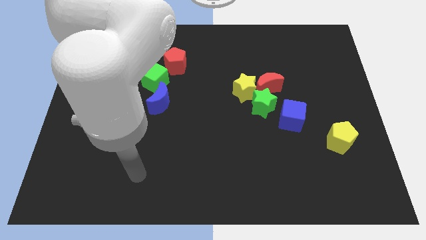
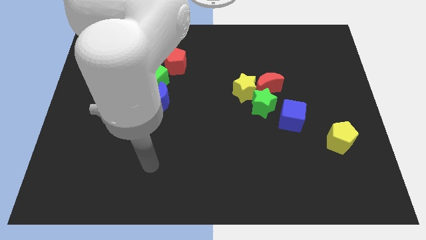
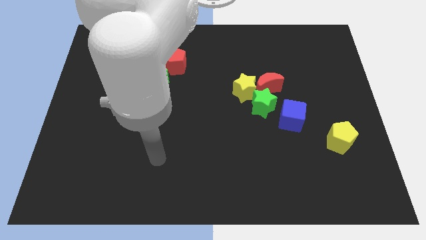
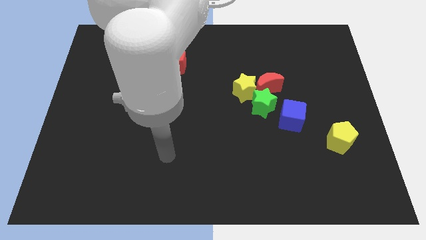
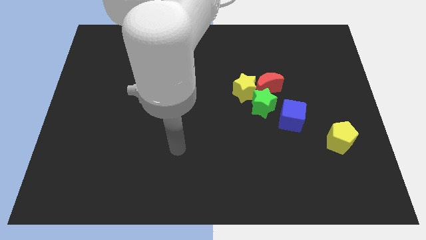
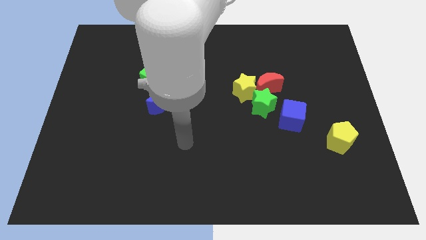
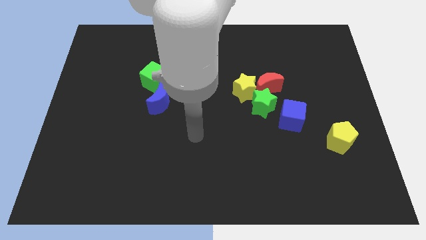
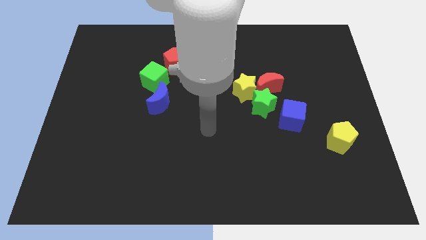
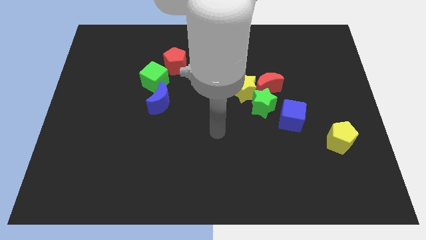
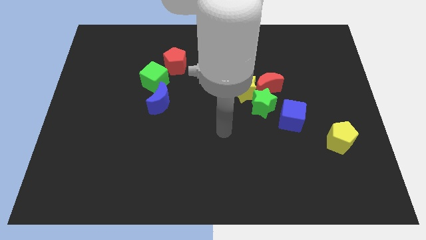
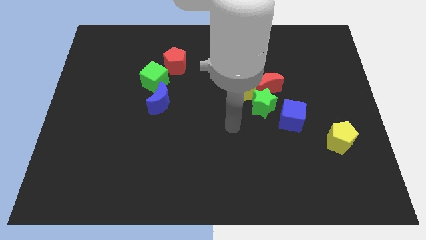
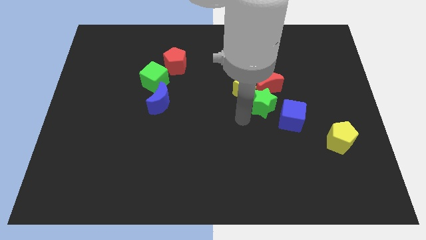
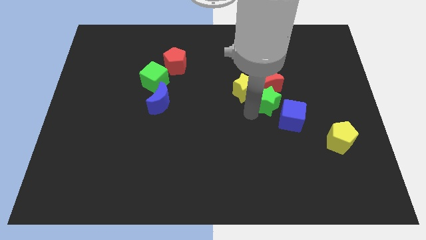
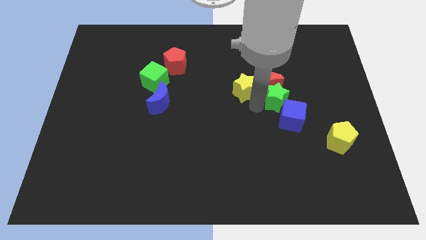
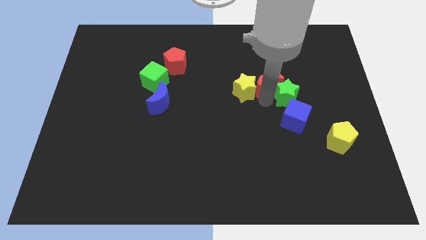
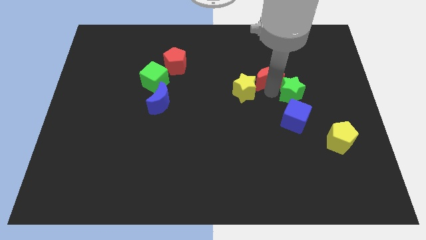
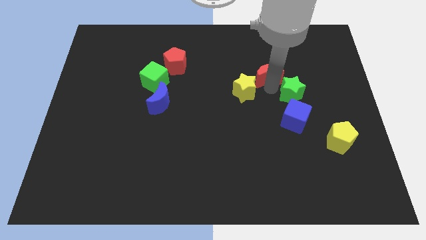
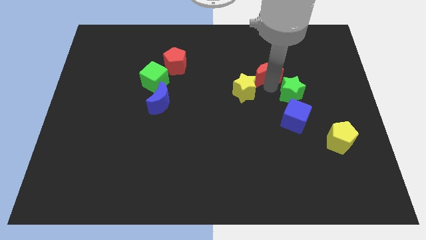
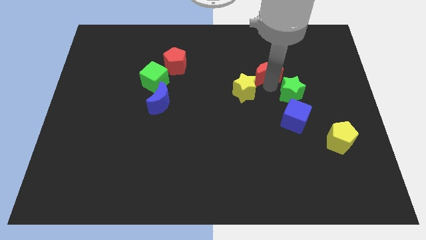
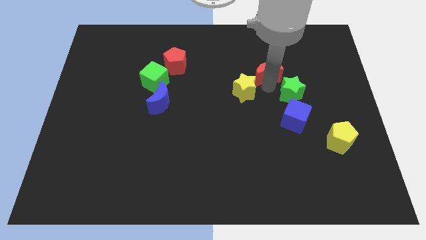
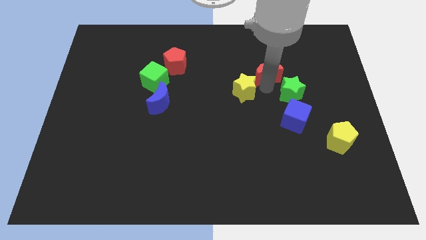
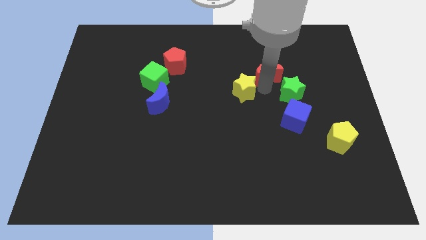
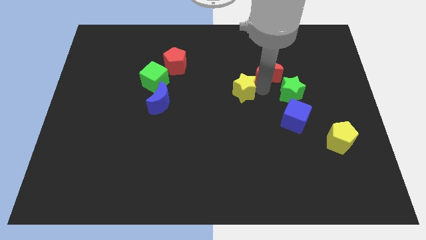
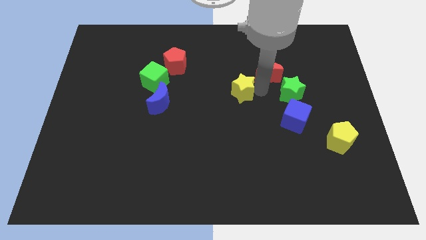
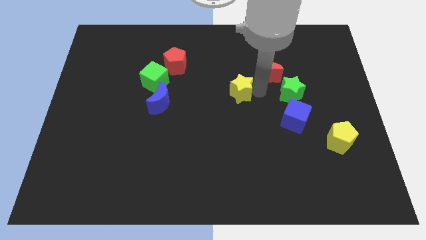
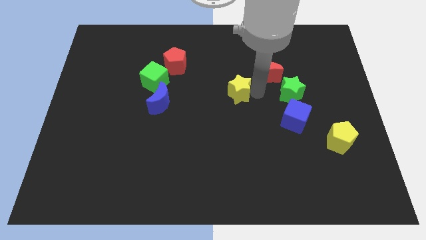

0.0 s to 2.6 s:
separate the yellow star from the red moon and green star

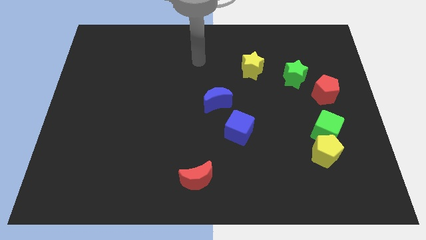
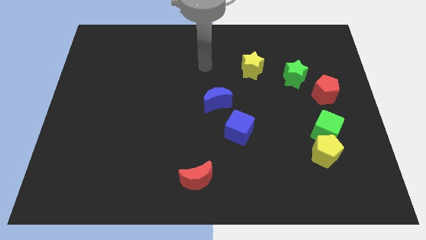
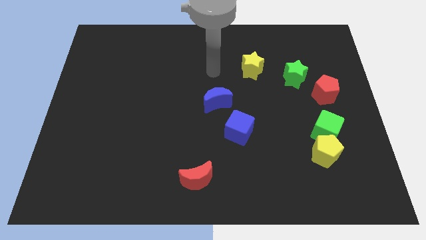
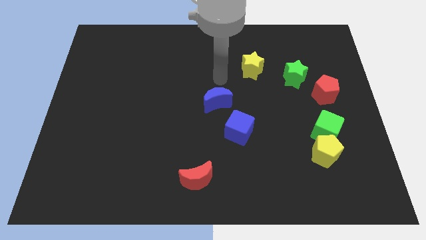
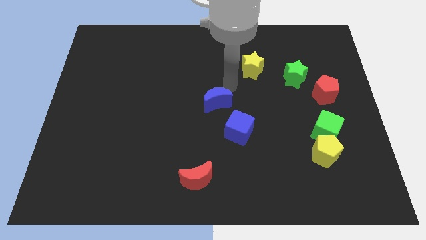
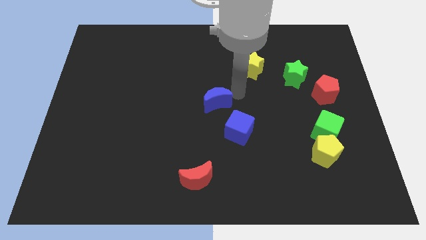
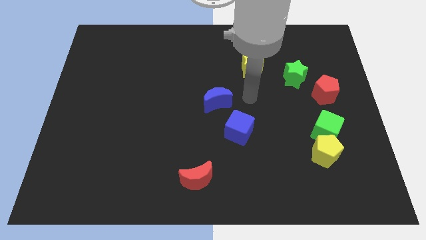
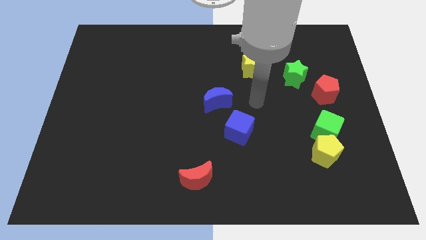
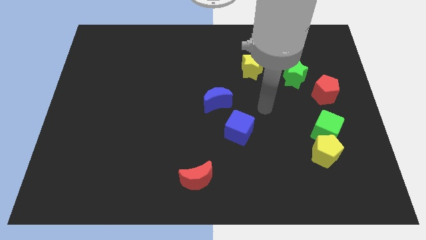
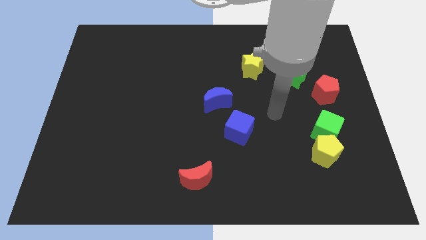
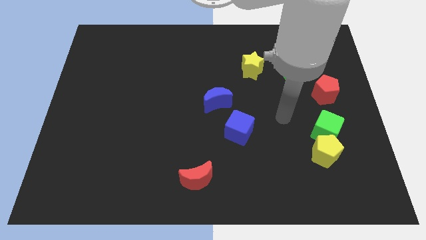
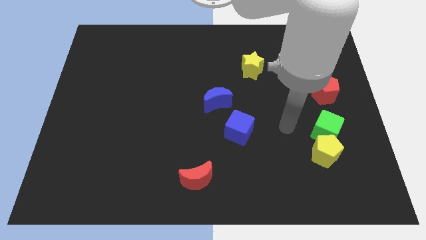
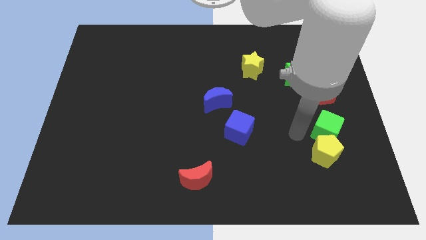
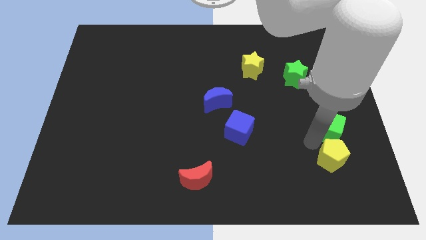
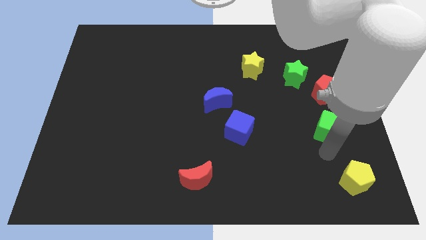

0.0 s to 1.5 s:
move the green cube away from the yellow pentagon

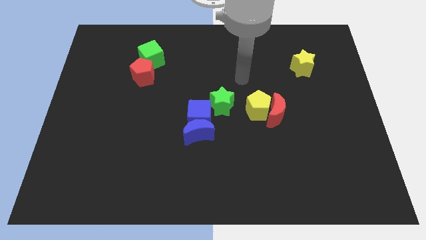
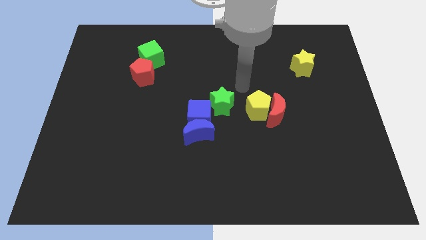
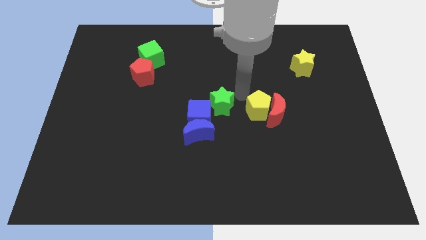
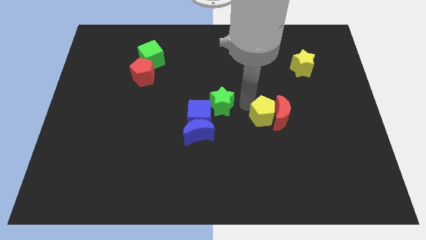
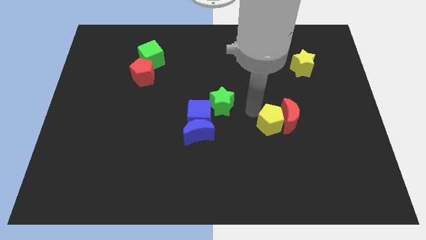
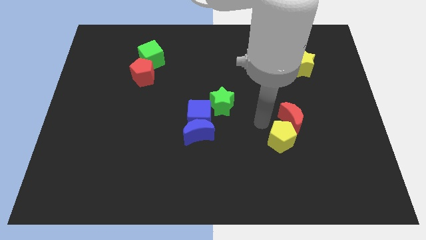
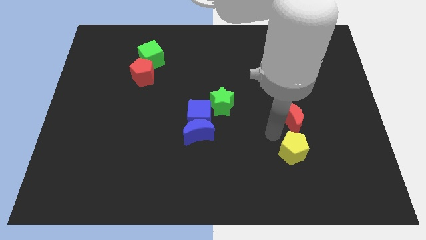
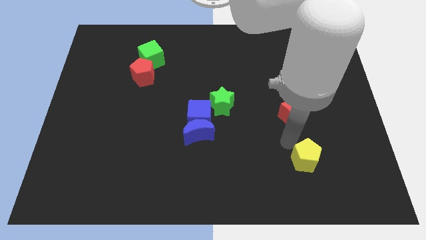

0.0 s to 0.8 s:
separate the red moon from the yellow pentagon

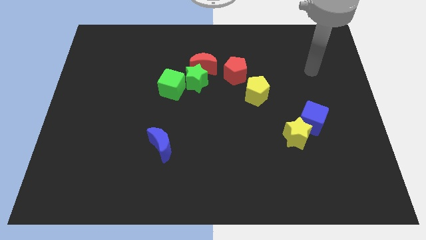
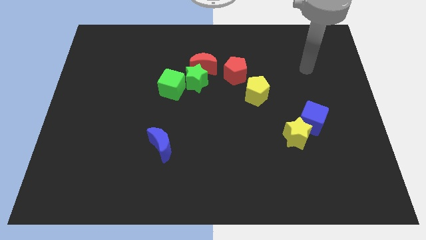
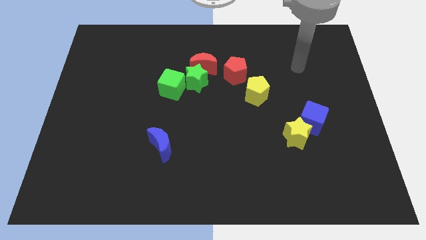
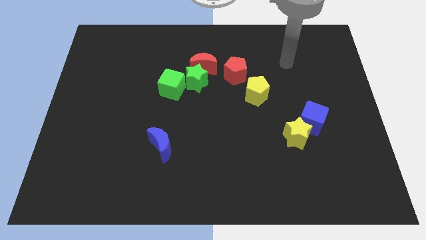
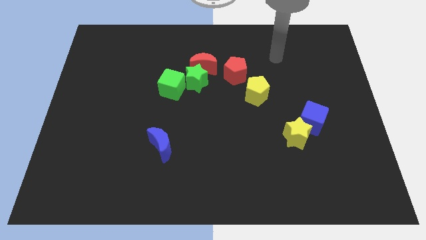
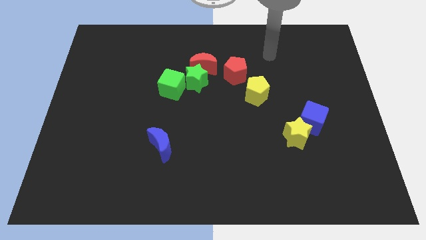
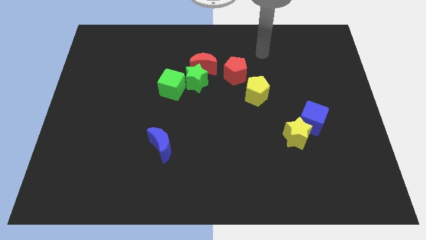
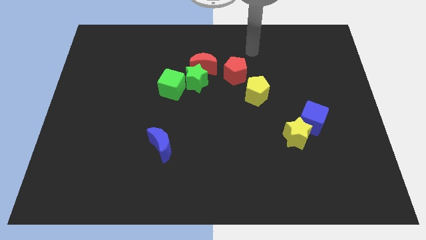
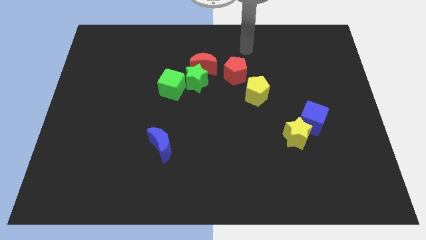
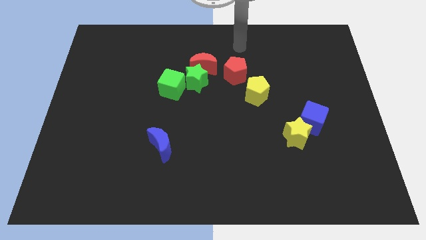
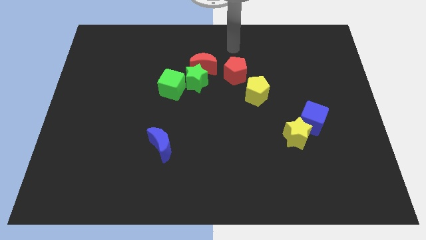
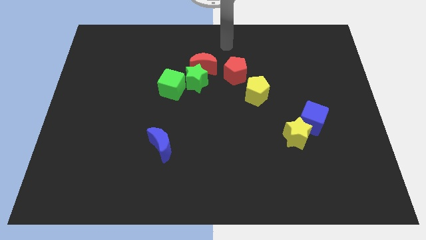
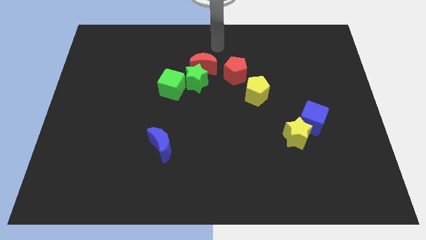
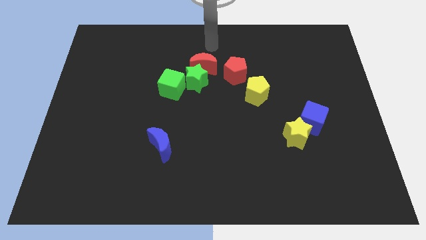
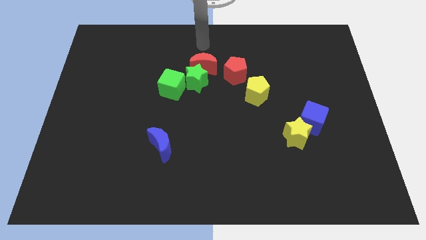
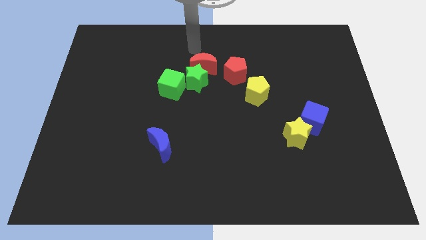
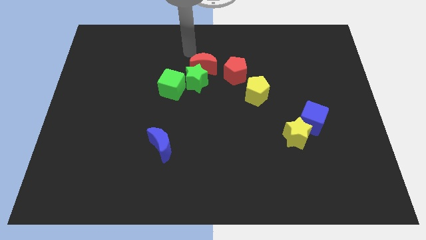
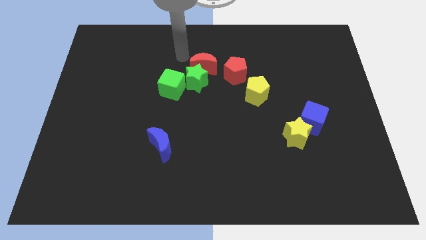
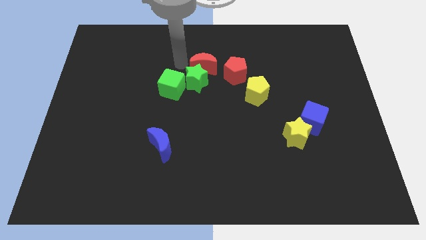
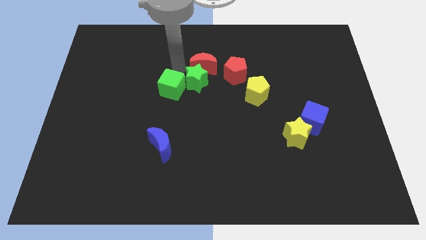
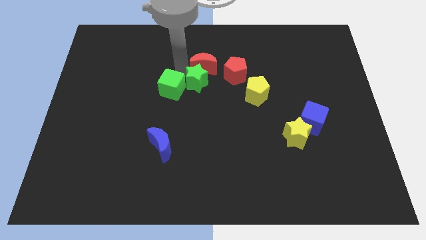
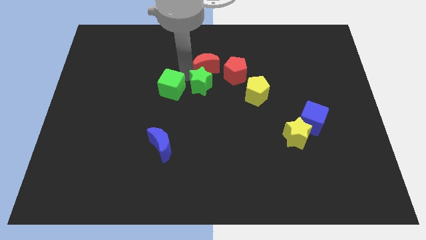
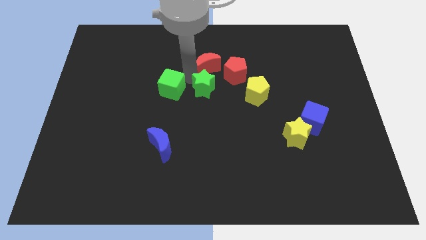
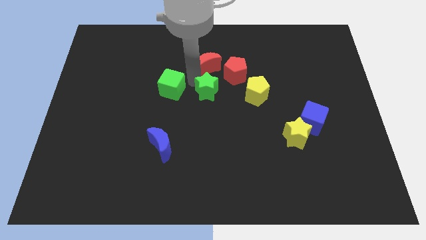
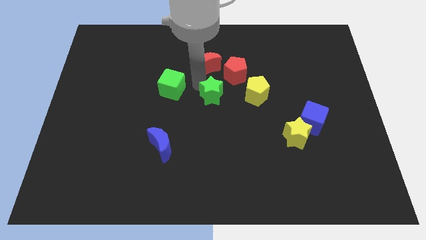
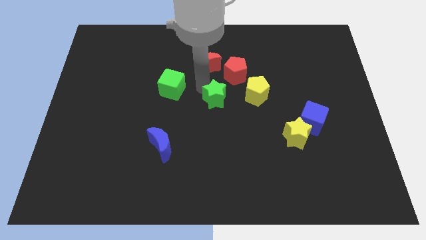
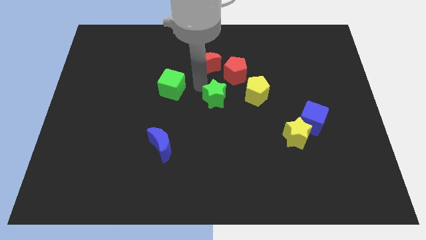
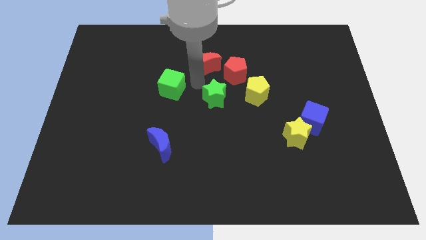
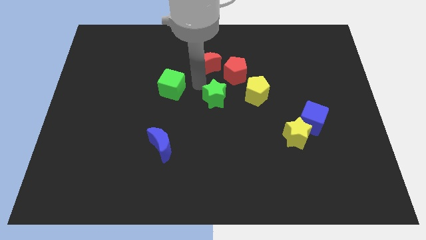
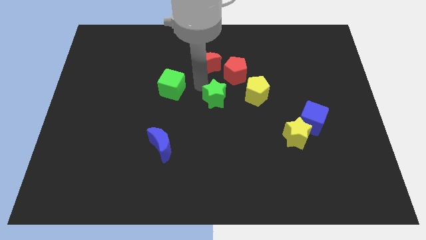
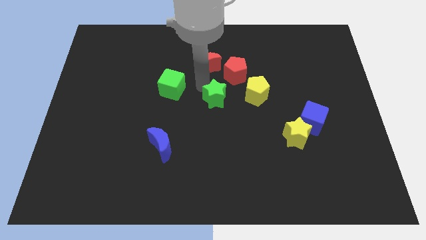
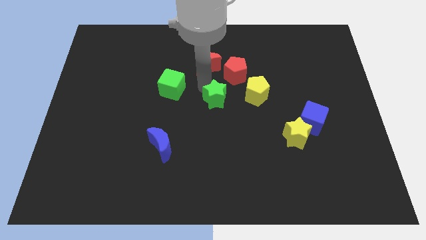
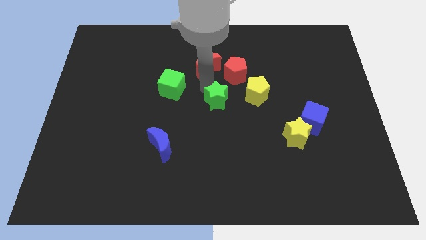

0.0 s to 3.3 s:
pull the green star apart from the red moon and green cube

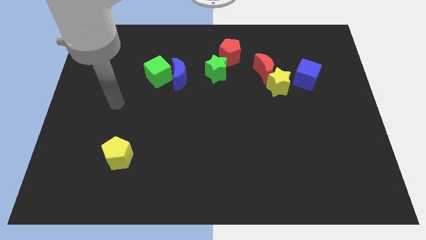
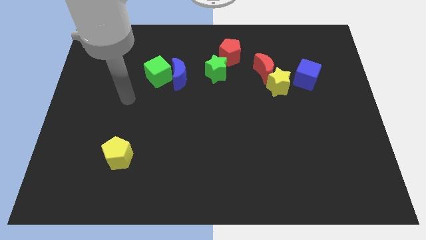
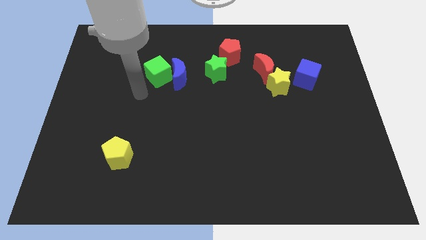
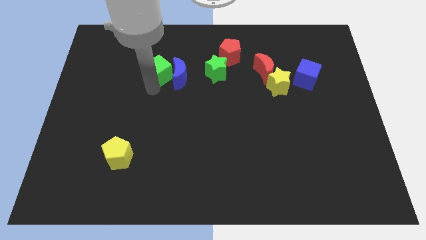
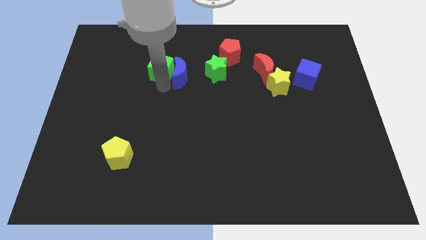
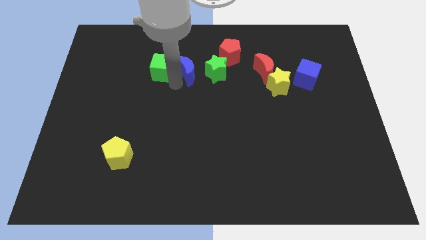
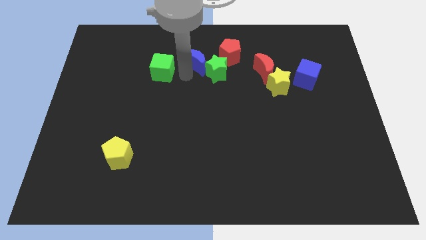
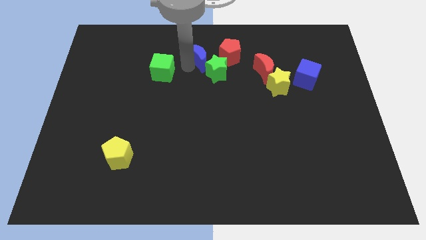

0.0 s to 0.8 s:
move the green cube away from the blue moon

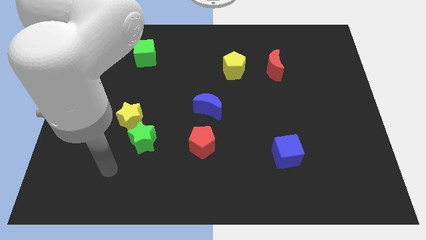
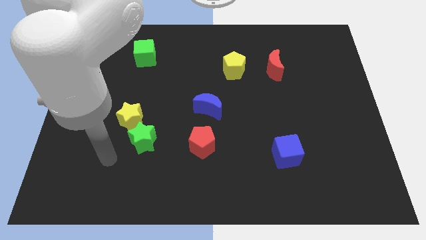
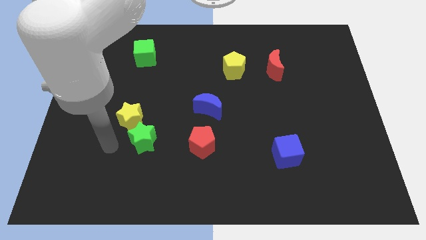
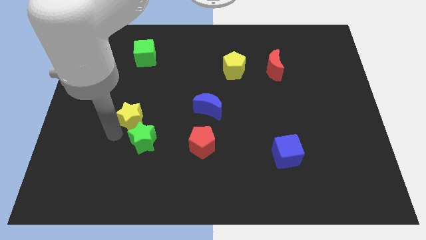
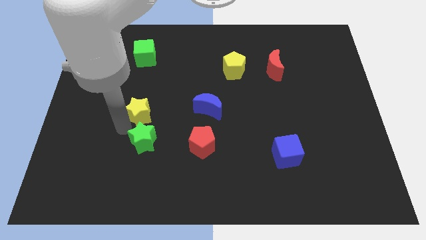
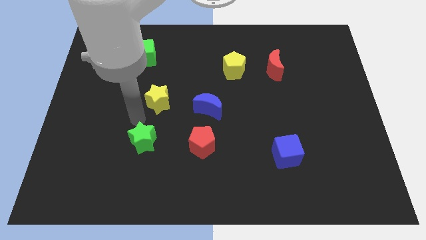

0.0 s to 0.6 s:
move the green star away from the yellow star
